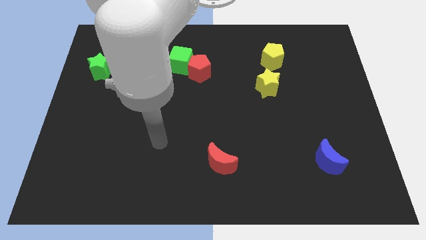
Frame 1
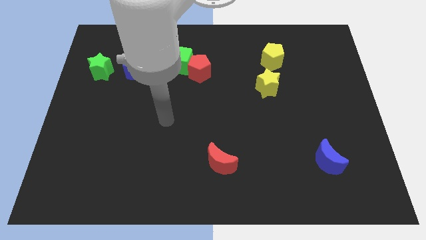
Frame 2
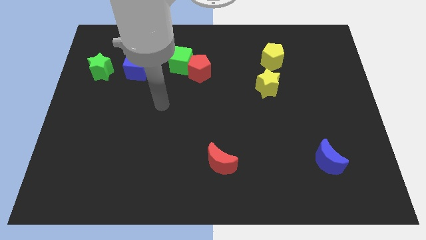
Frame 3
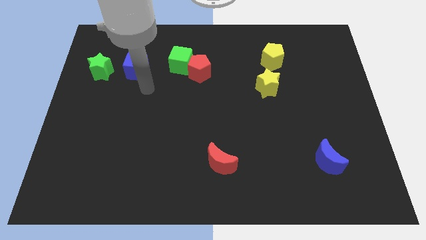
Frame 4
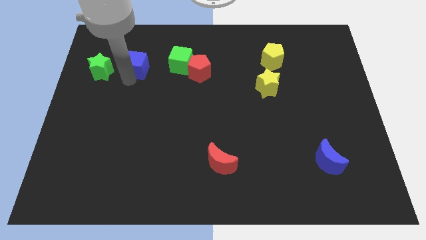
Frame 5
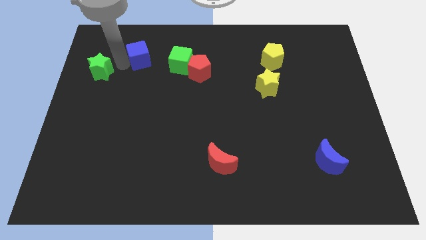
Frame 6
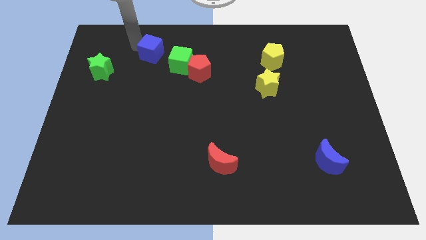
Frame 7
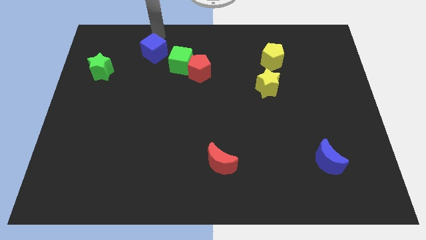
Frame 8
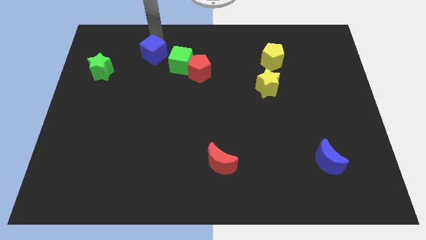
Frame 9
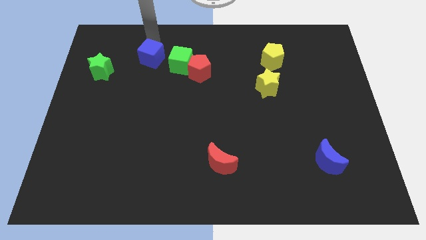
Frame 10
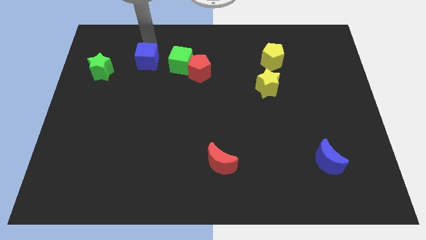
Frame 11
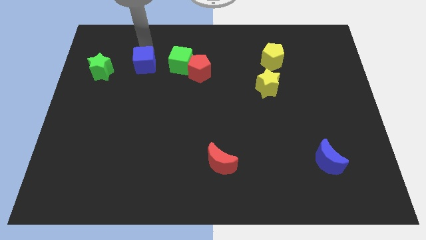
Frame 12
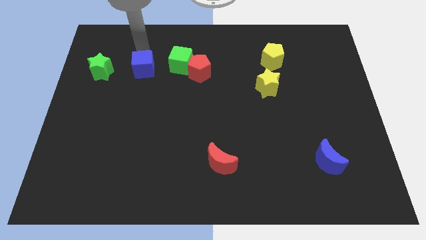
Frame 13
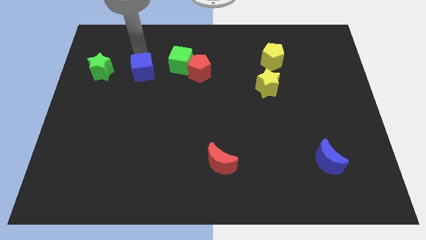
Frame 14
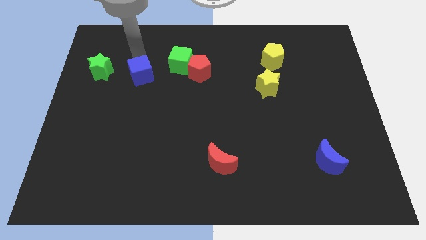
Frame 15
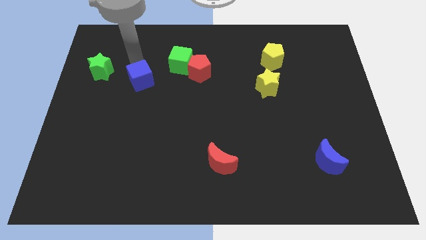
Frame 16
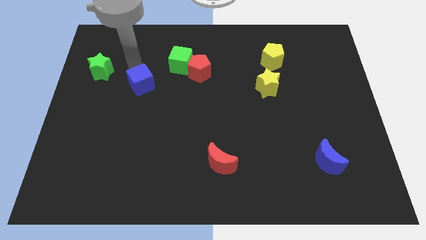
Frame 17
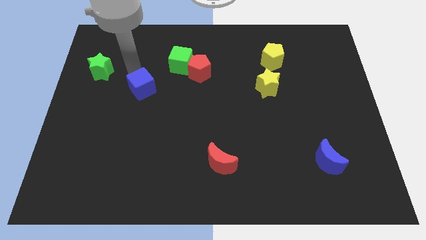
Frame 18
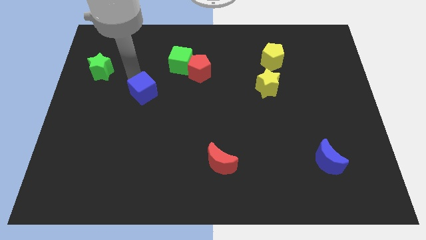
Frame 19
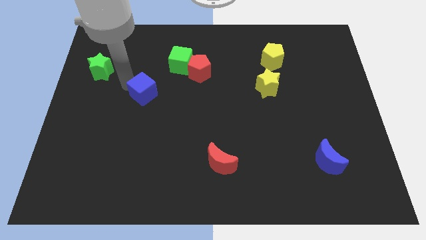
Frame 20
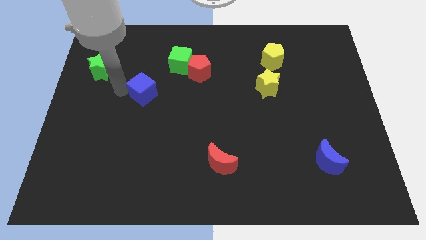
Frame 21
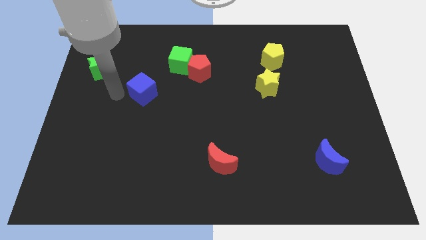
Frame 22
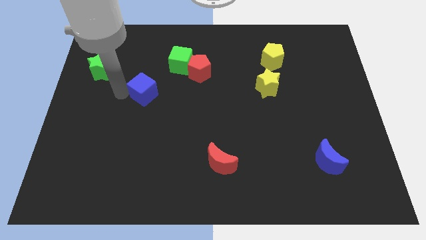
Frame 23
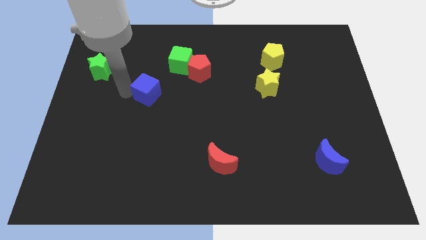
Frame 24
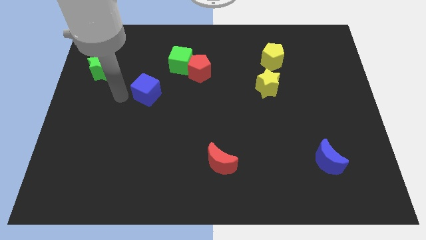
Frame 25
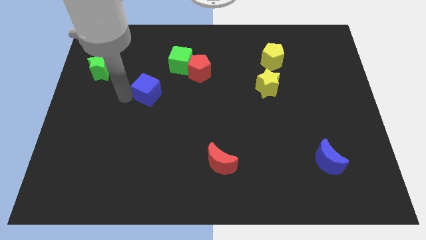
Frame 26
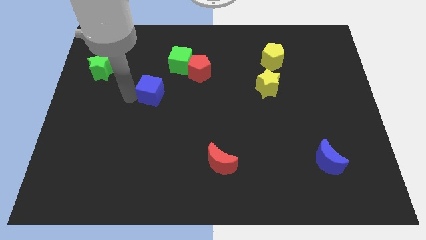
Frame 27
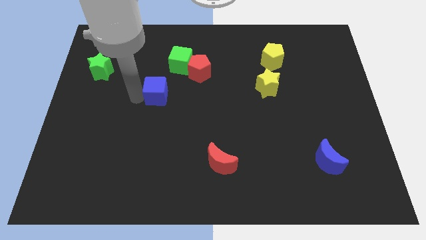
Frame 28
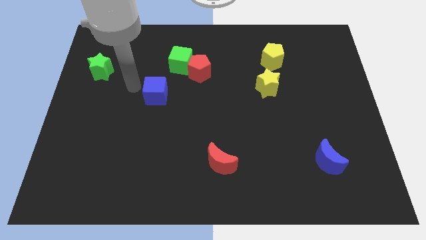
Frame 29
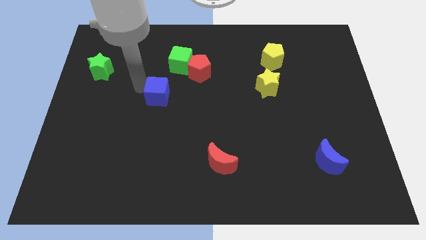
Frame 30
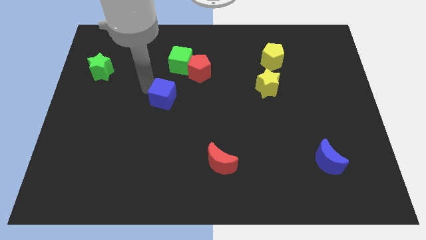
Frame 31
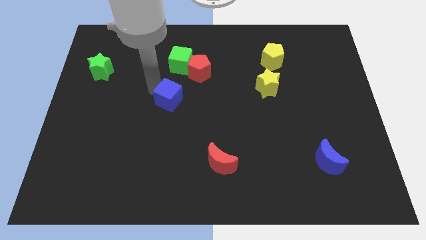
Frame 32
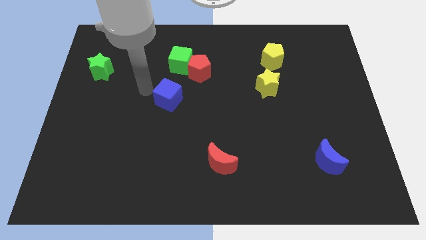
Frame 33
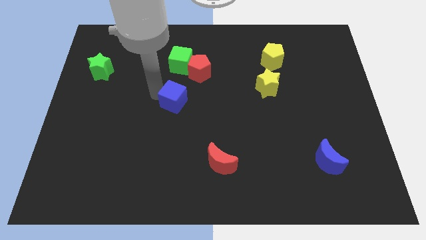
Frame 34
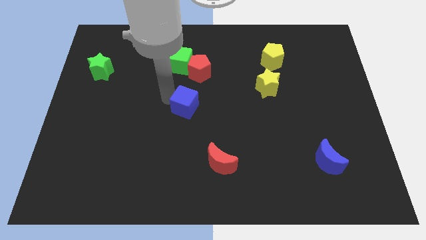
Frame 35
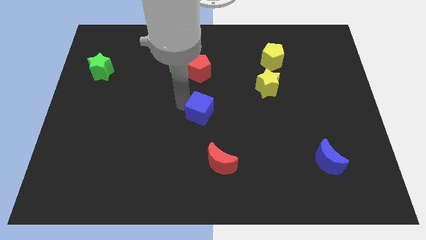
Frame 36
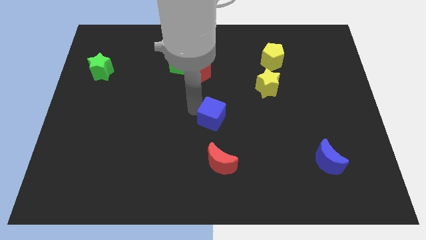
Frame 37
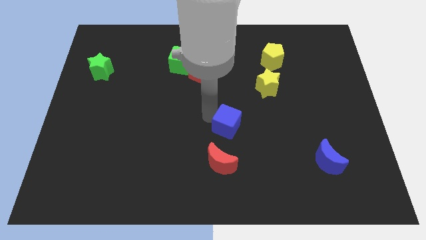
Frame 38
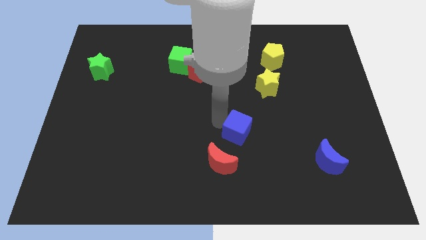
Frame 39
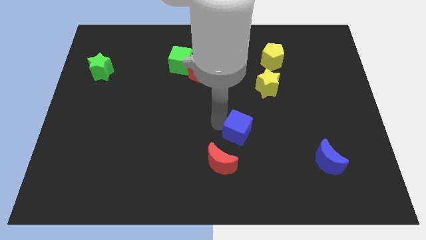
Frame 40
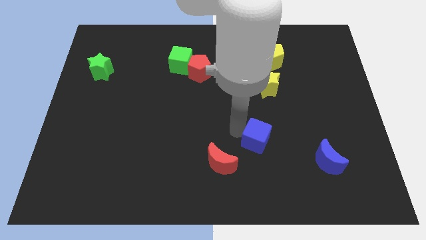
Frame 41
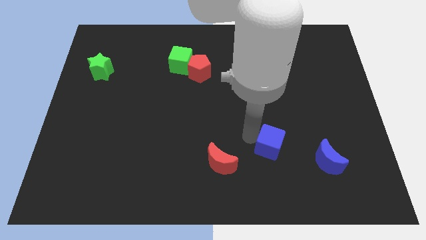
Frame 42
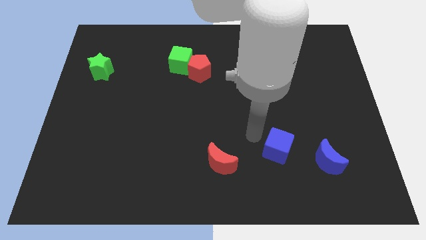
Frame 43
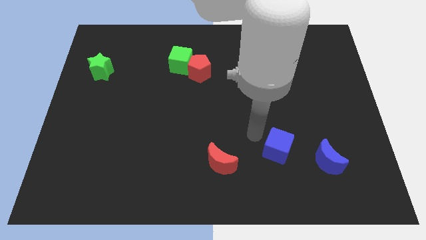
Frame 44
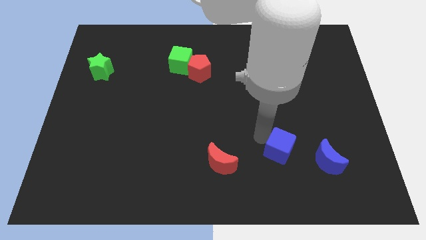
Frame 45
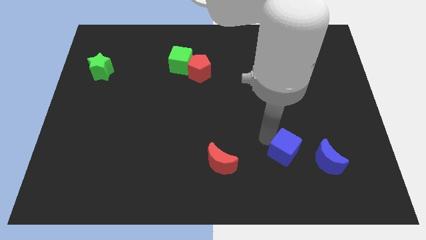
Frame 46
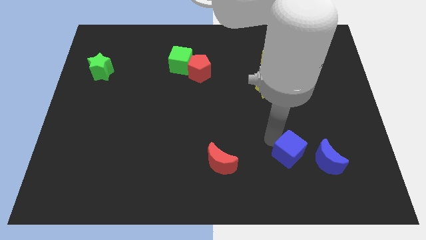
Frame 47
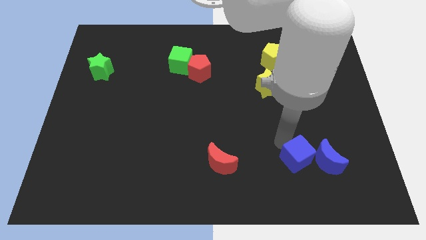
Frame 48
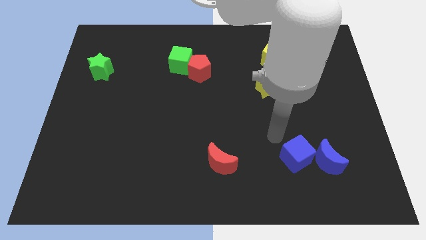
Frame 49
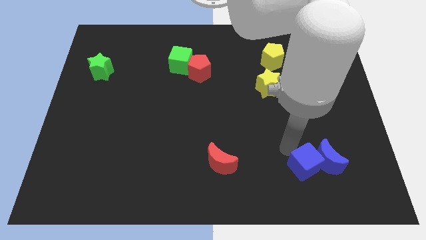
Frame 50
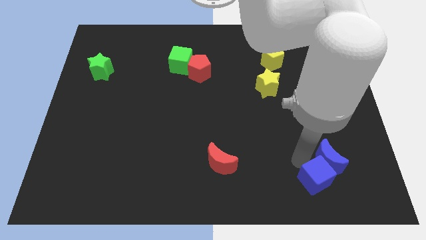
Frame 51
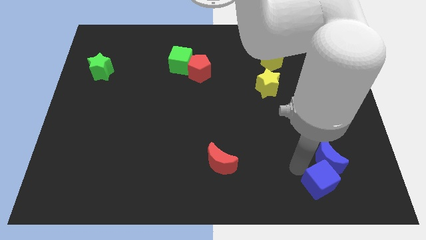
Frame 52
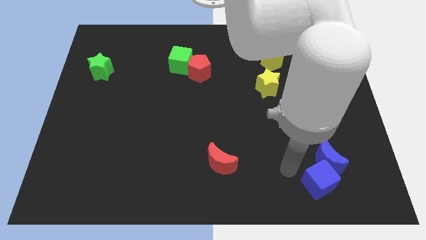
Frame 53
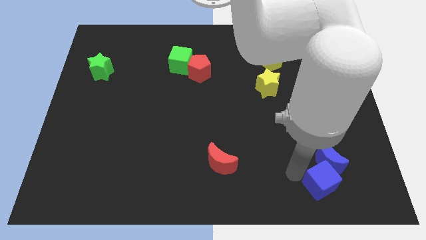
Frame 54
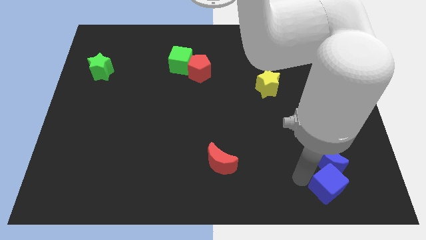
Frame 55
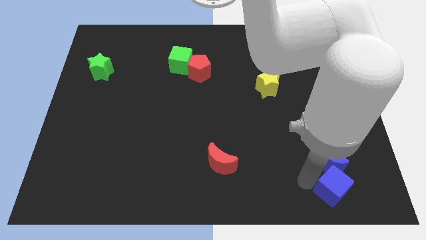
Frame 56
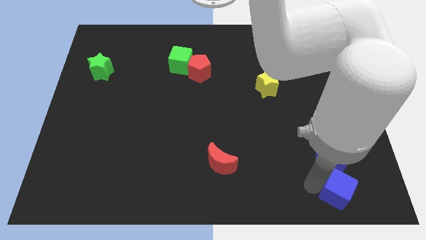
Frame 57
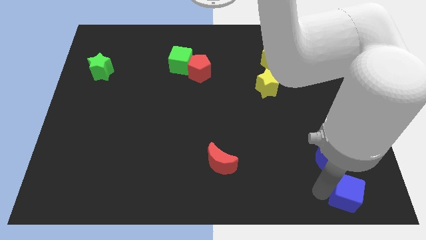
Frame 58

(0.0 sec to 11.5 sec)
move the blue cube to the bottom right

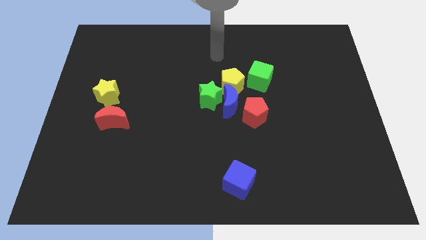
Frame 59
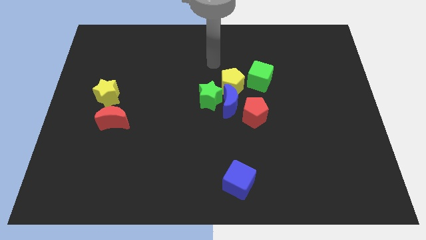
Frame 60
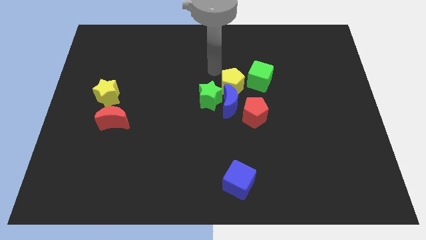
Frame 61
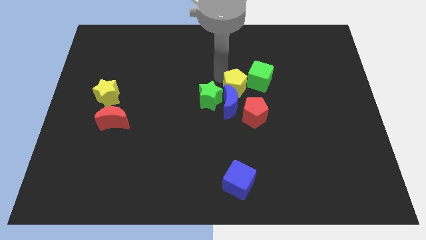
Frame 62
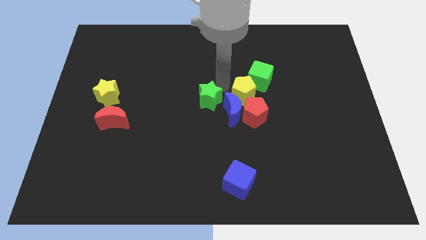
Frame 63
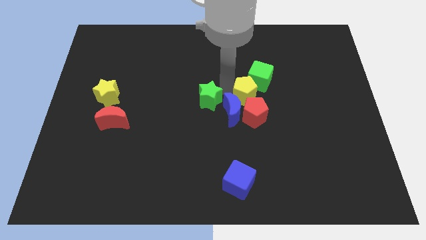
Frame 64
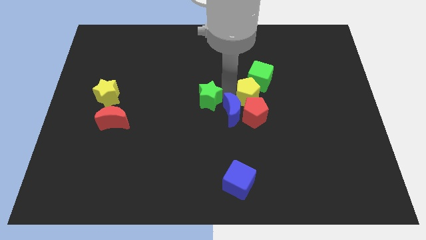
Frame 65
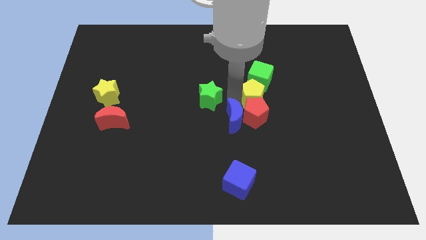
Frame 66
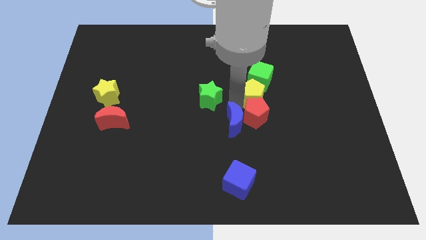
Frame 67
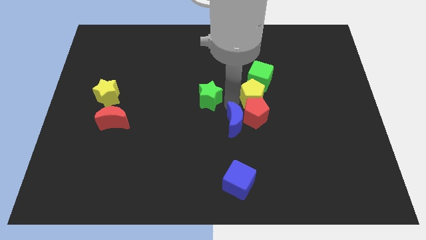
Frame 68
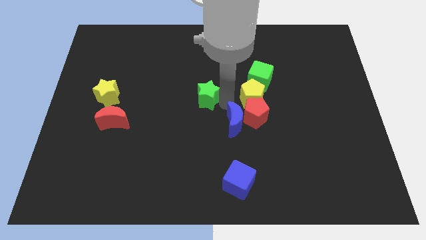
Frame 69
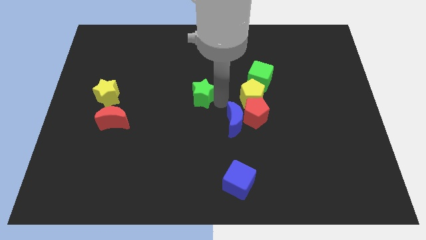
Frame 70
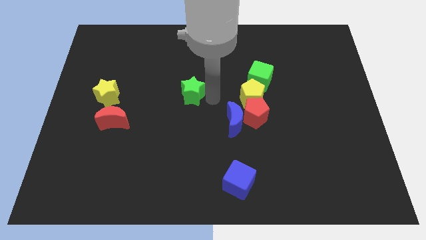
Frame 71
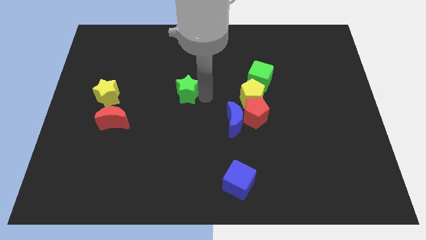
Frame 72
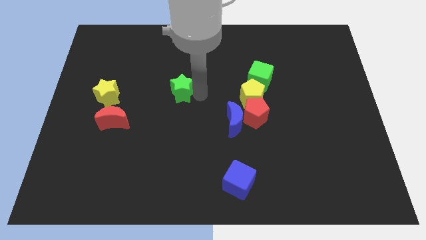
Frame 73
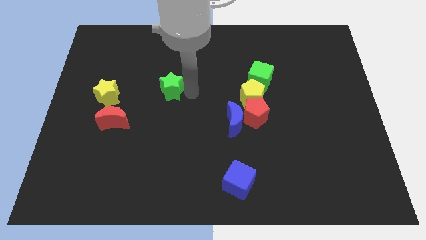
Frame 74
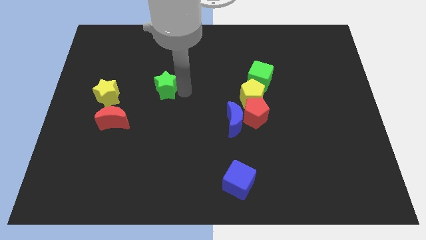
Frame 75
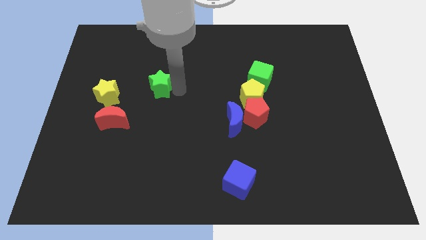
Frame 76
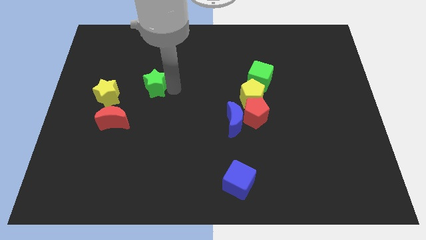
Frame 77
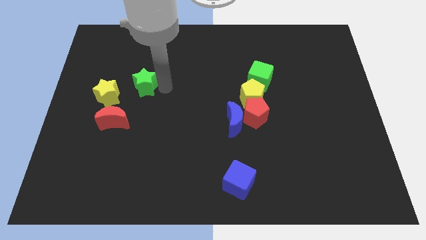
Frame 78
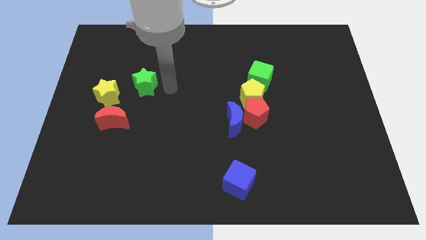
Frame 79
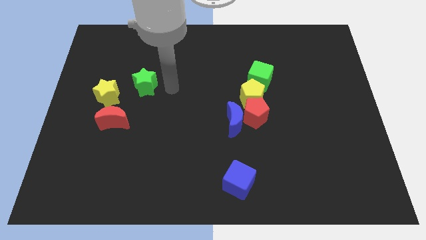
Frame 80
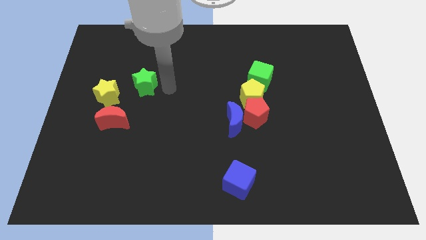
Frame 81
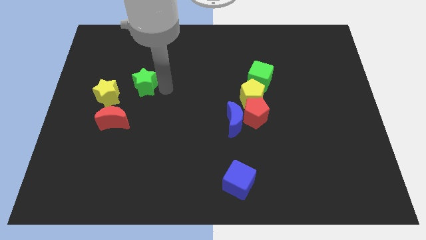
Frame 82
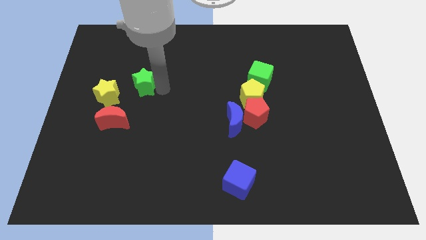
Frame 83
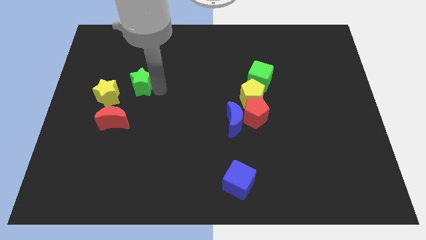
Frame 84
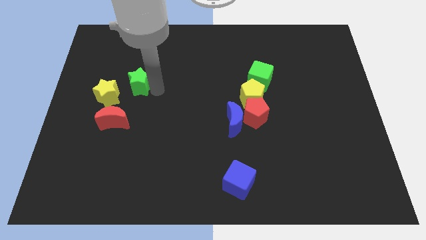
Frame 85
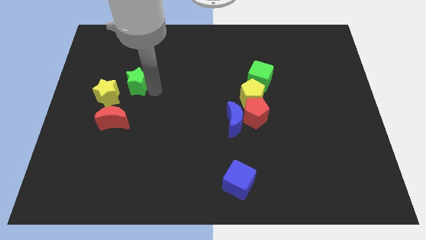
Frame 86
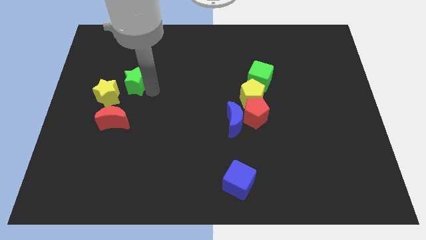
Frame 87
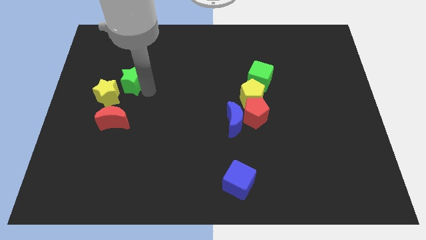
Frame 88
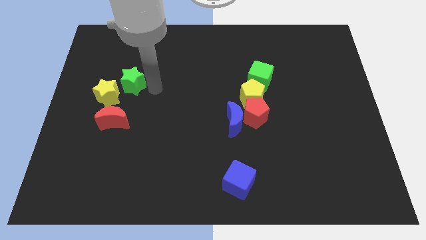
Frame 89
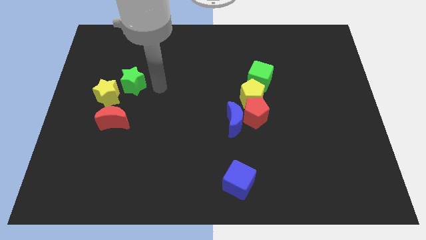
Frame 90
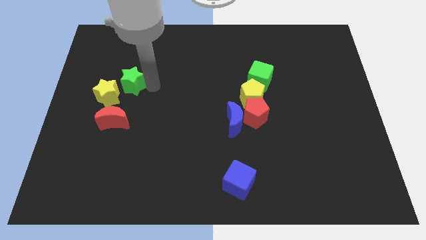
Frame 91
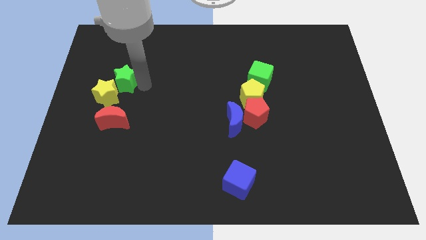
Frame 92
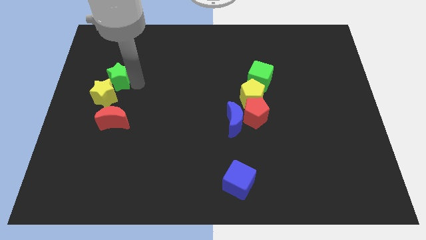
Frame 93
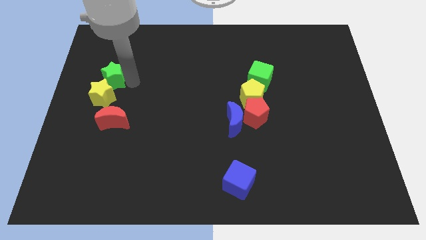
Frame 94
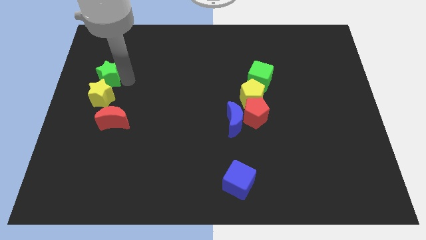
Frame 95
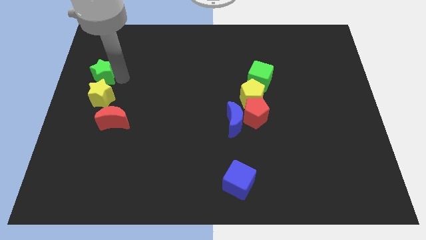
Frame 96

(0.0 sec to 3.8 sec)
move the green star to the left side
